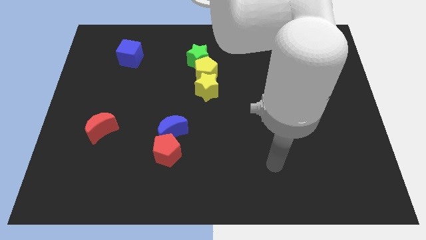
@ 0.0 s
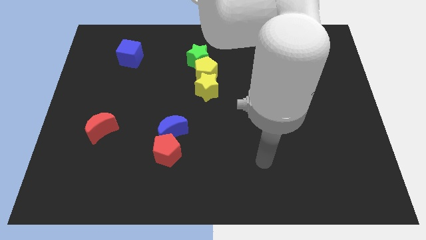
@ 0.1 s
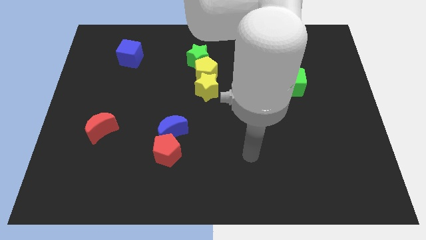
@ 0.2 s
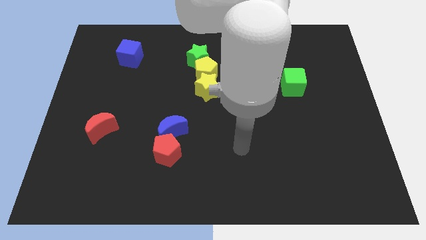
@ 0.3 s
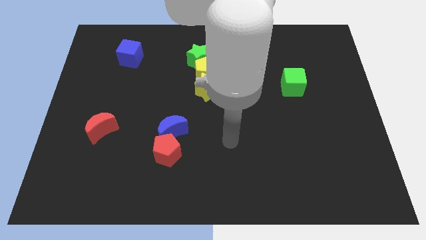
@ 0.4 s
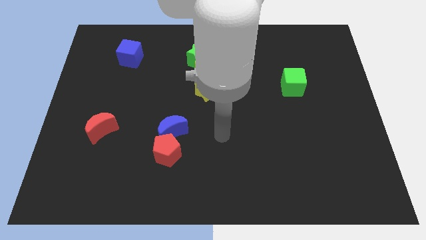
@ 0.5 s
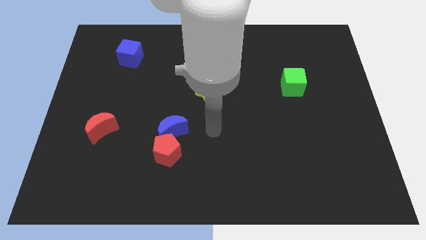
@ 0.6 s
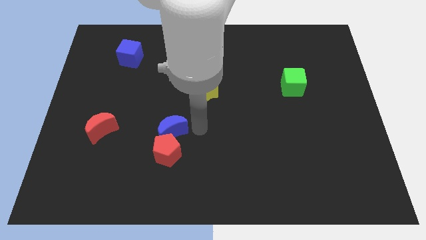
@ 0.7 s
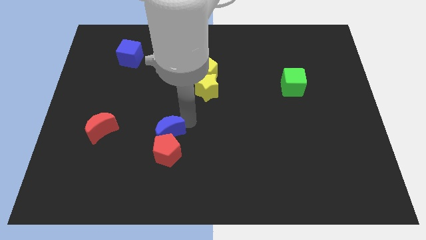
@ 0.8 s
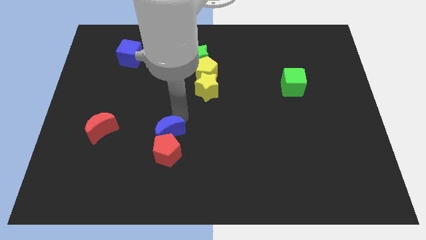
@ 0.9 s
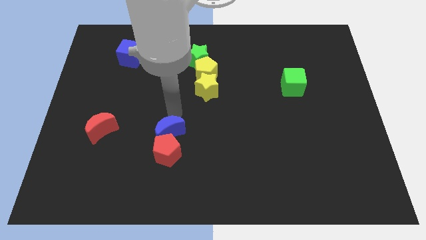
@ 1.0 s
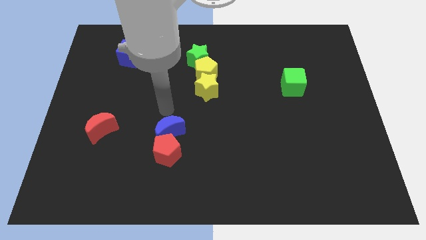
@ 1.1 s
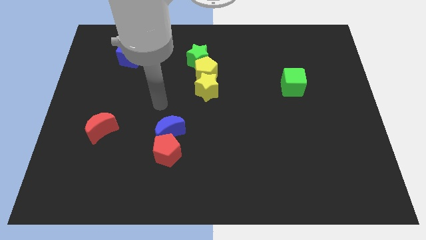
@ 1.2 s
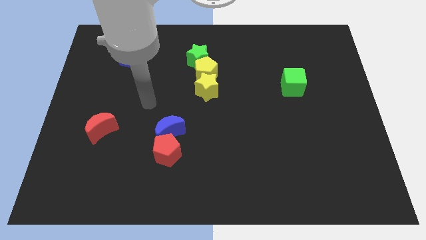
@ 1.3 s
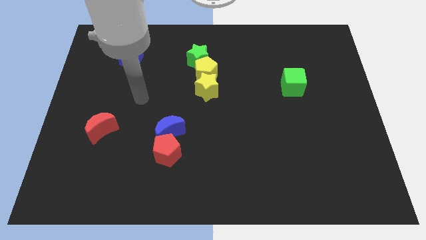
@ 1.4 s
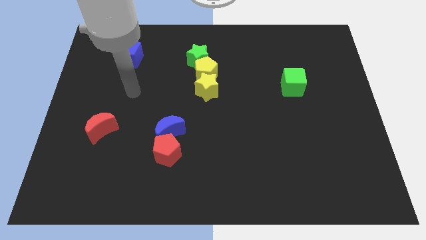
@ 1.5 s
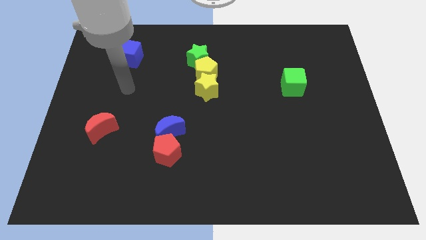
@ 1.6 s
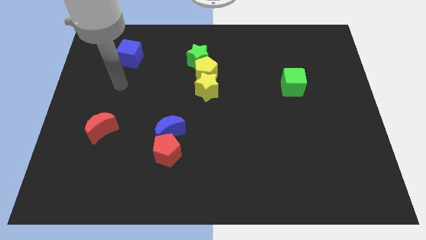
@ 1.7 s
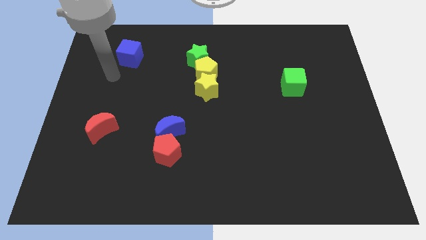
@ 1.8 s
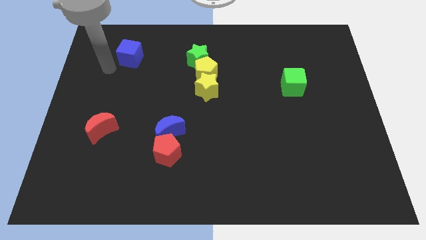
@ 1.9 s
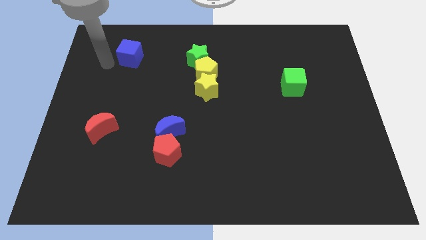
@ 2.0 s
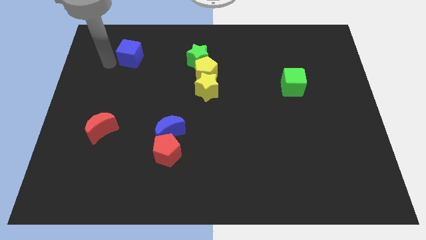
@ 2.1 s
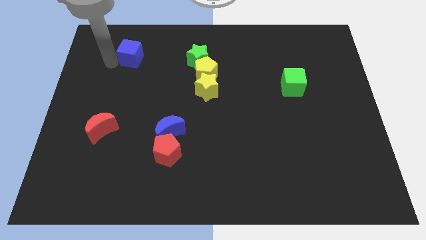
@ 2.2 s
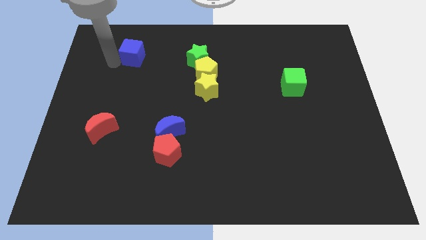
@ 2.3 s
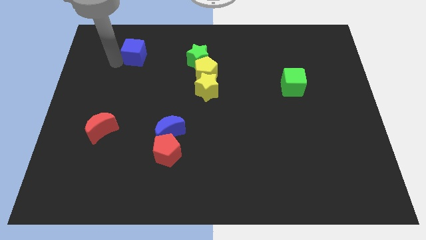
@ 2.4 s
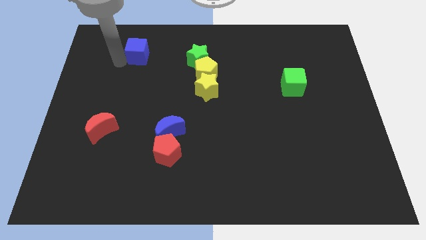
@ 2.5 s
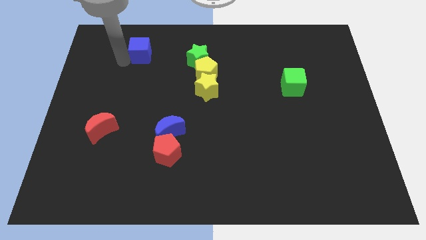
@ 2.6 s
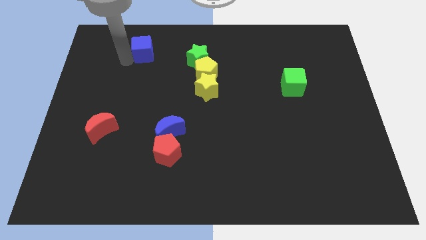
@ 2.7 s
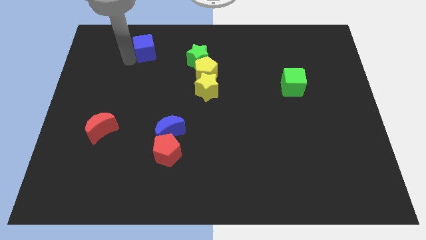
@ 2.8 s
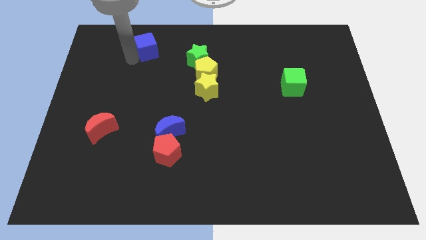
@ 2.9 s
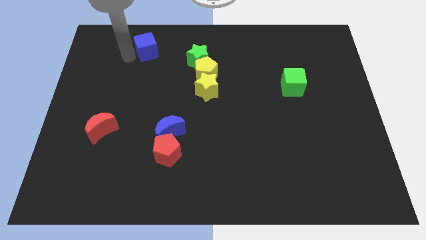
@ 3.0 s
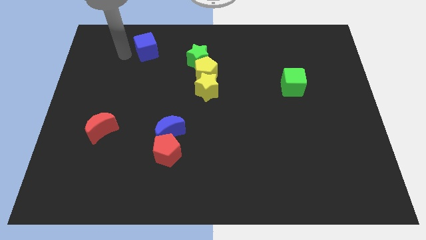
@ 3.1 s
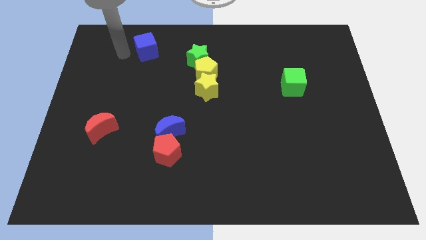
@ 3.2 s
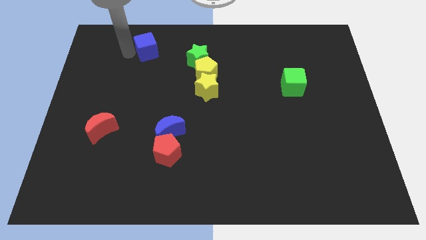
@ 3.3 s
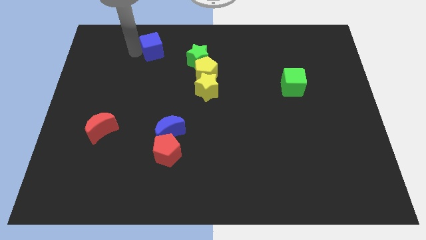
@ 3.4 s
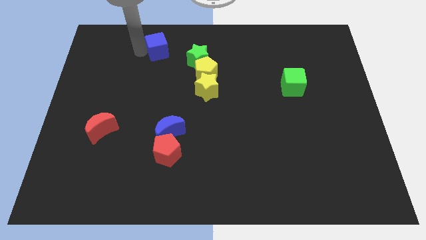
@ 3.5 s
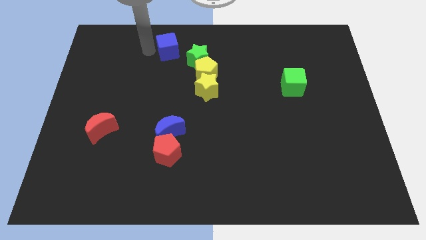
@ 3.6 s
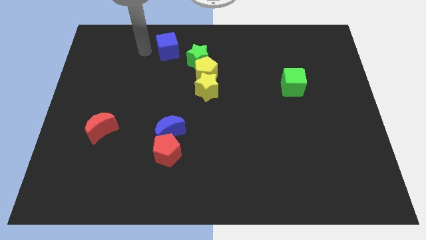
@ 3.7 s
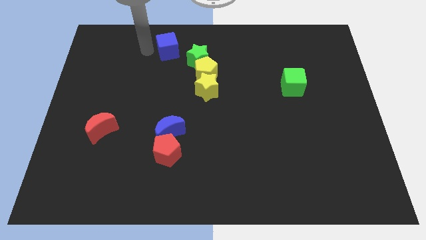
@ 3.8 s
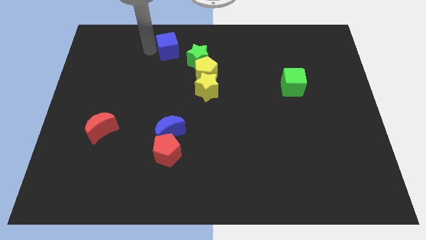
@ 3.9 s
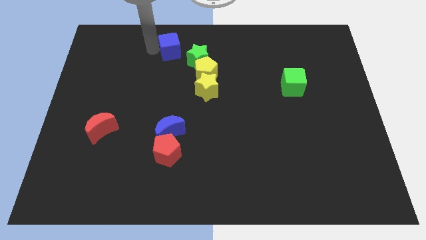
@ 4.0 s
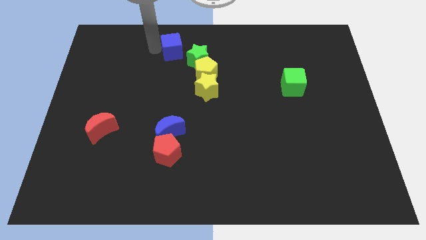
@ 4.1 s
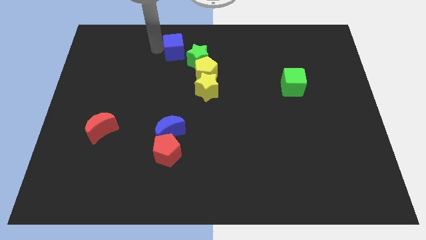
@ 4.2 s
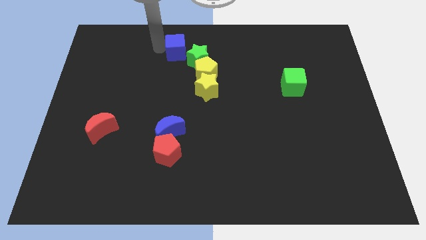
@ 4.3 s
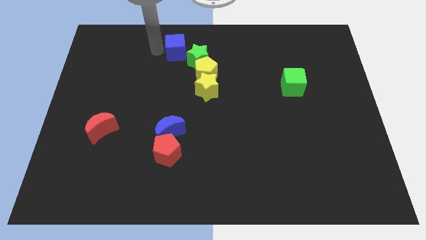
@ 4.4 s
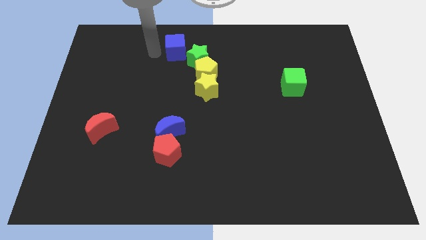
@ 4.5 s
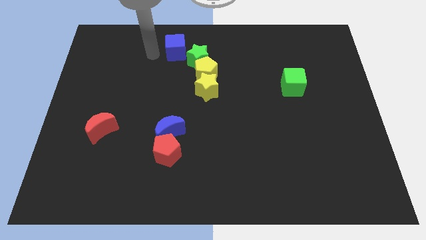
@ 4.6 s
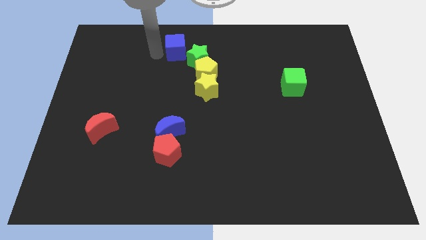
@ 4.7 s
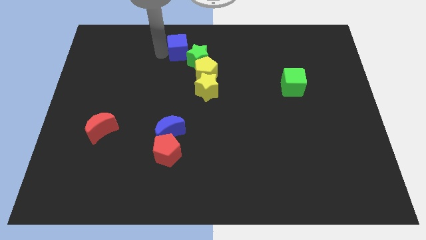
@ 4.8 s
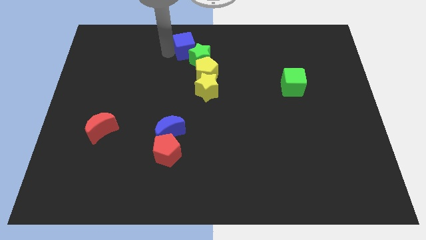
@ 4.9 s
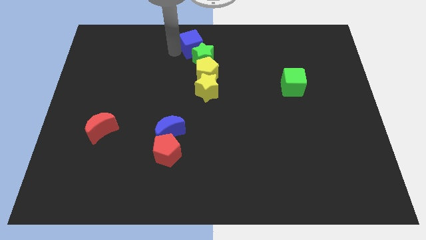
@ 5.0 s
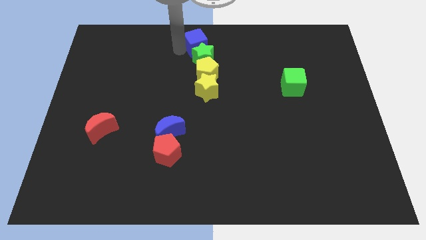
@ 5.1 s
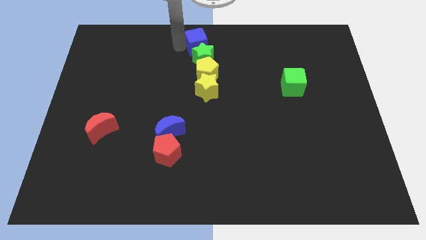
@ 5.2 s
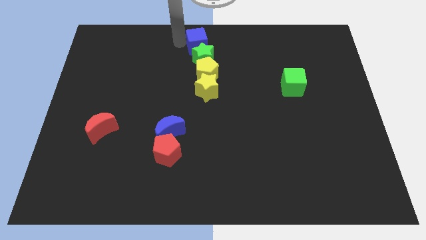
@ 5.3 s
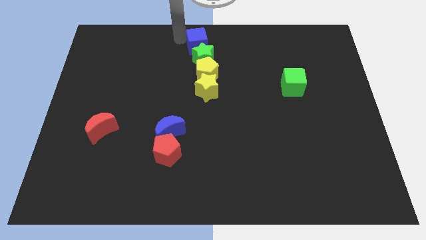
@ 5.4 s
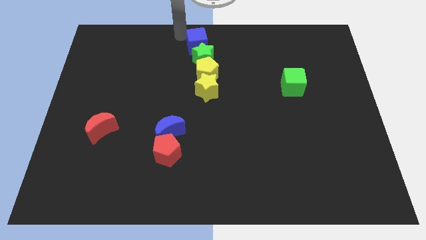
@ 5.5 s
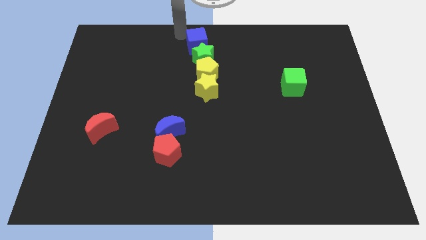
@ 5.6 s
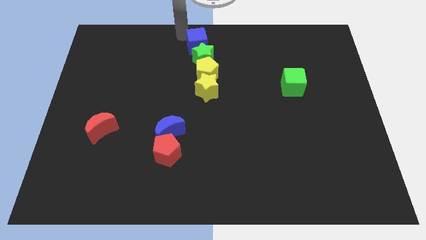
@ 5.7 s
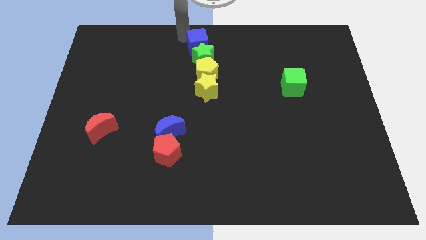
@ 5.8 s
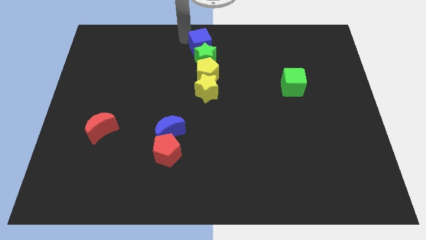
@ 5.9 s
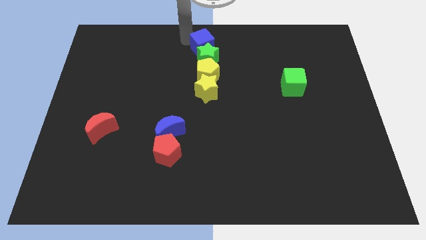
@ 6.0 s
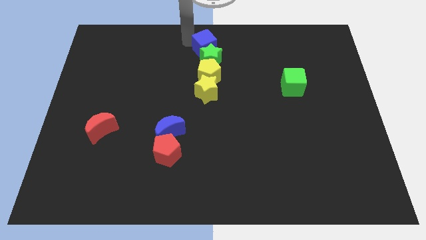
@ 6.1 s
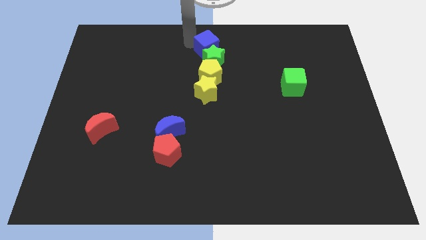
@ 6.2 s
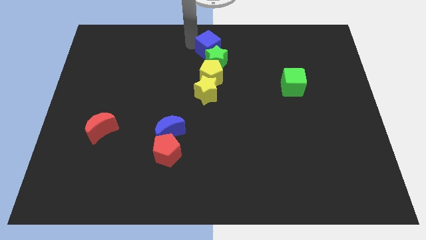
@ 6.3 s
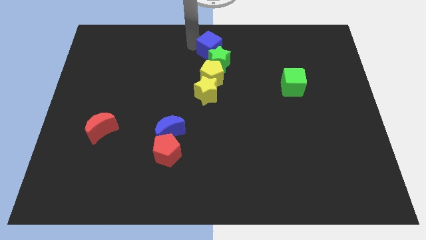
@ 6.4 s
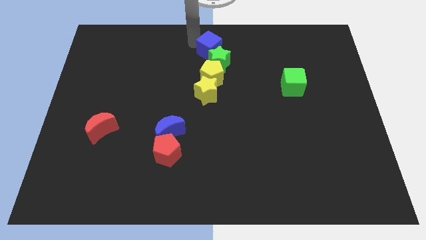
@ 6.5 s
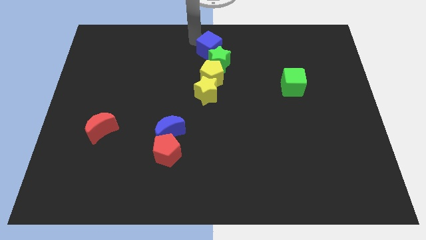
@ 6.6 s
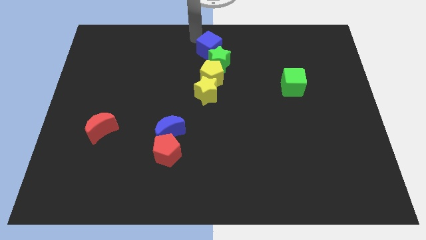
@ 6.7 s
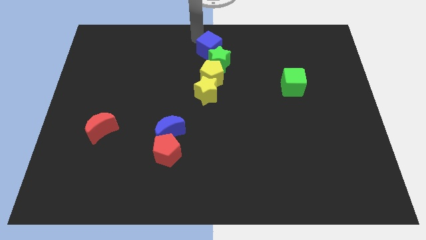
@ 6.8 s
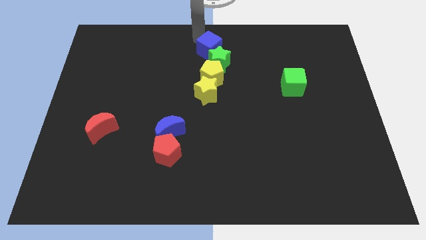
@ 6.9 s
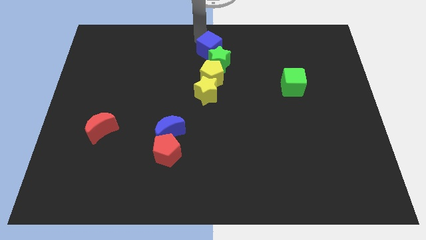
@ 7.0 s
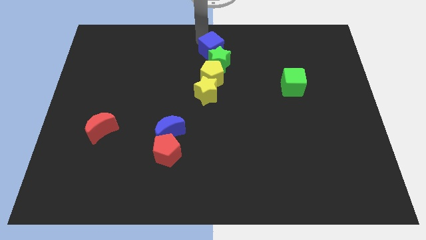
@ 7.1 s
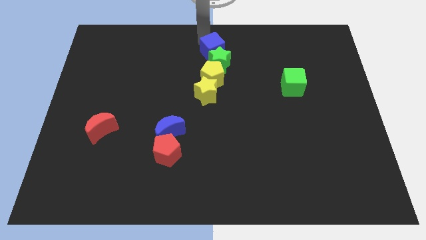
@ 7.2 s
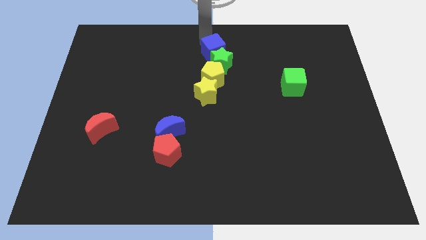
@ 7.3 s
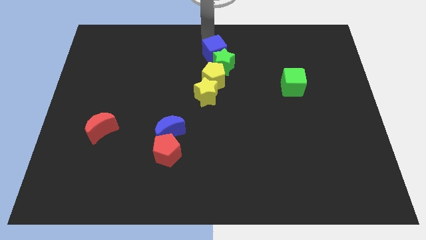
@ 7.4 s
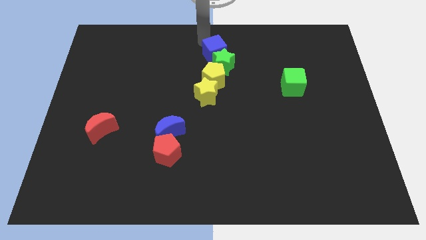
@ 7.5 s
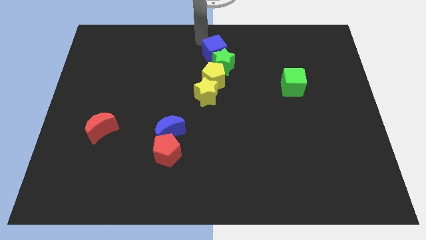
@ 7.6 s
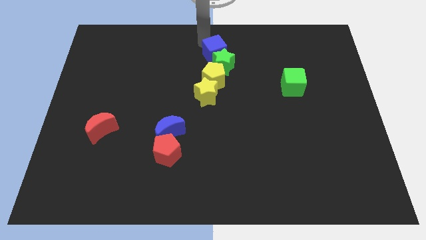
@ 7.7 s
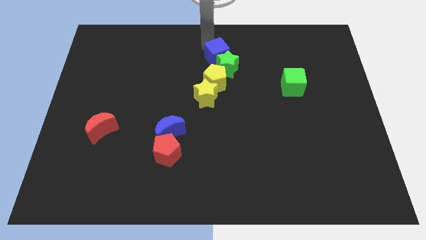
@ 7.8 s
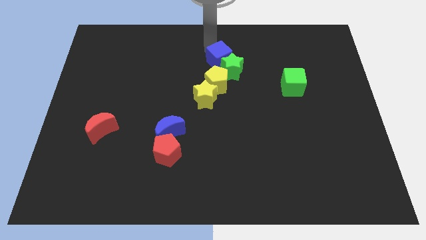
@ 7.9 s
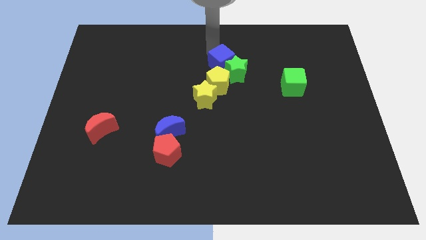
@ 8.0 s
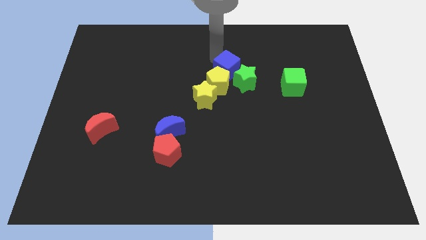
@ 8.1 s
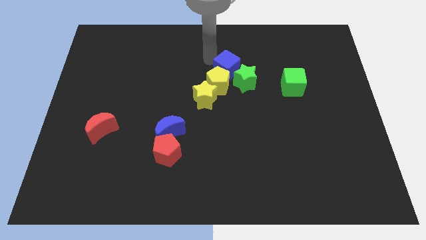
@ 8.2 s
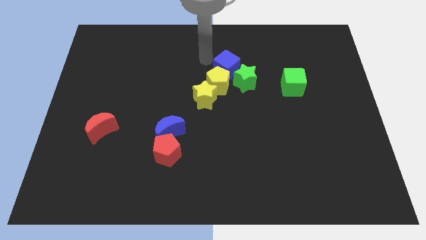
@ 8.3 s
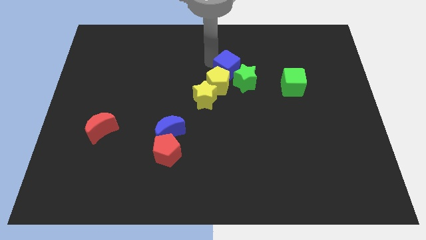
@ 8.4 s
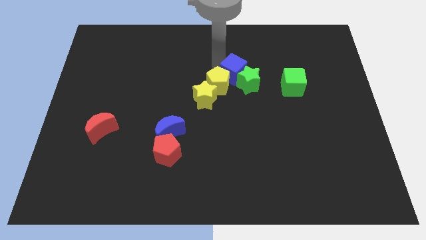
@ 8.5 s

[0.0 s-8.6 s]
slide the blue cube right of the yellow pentagon
